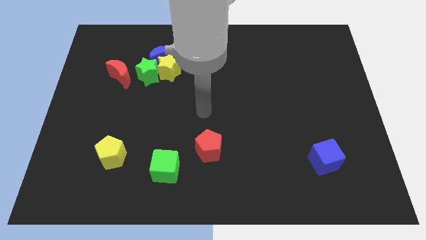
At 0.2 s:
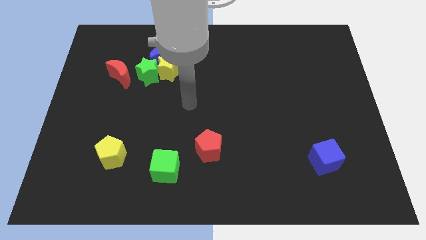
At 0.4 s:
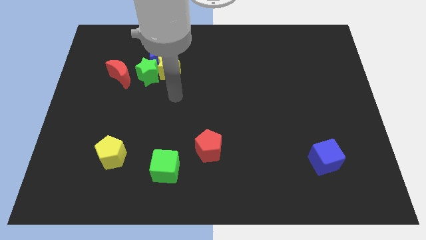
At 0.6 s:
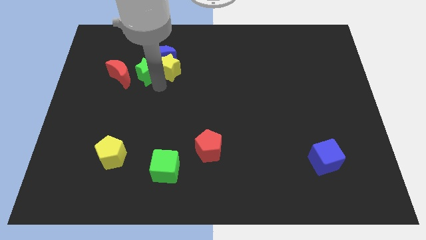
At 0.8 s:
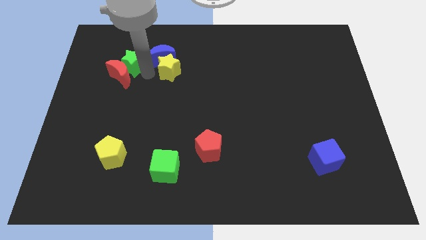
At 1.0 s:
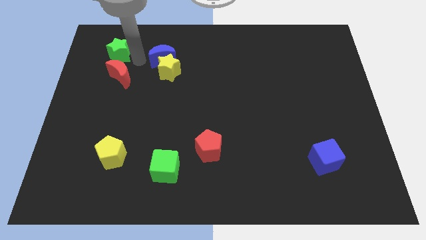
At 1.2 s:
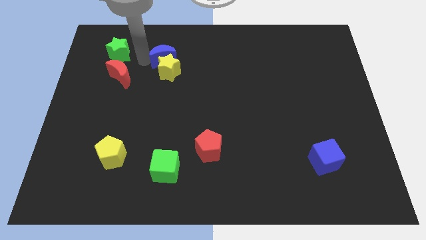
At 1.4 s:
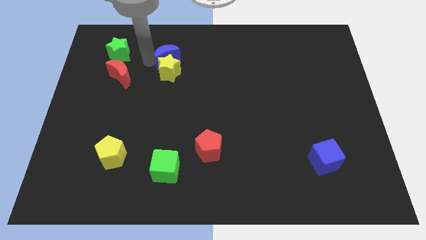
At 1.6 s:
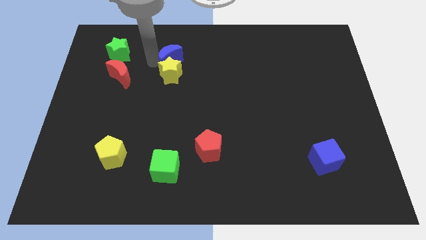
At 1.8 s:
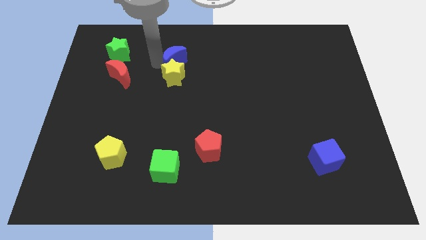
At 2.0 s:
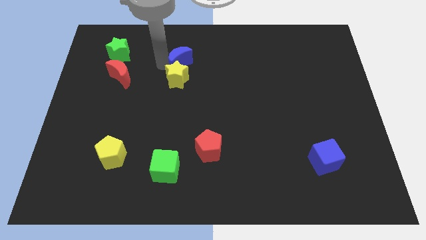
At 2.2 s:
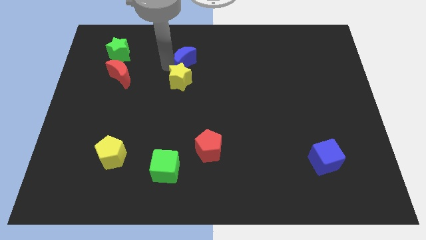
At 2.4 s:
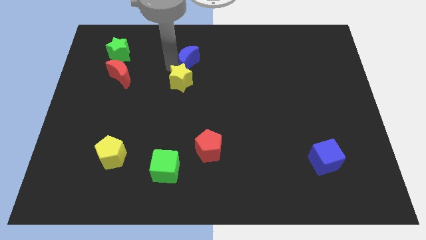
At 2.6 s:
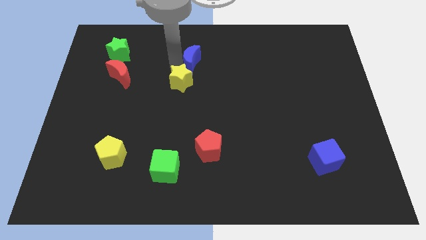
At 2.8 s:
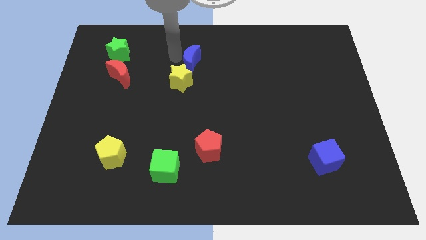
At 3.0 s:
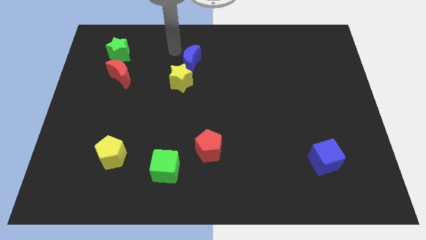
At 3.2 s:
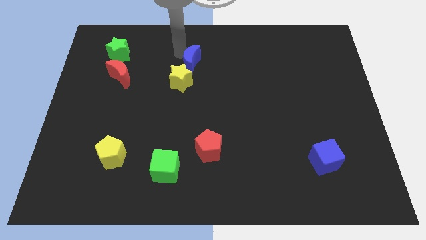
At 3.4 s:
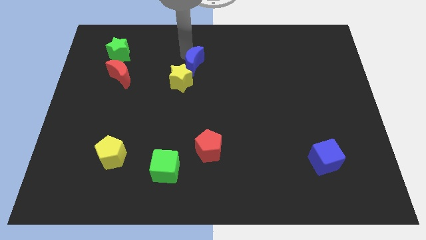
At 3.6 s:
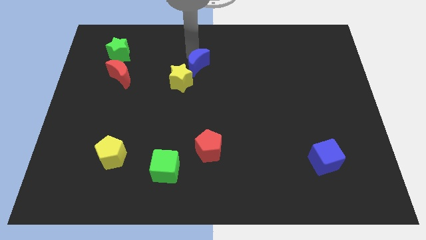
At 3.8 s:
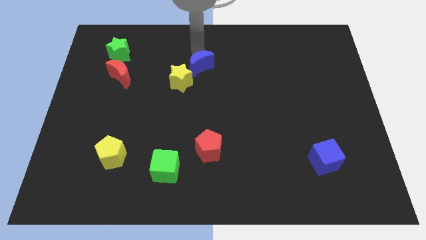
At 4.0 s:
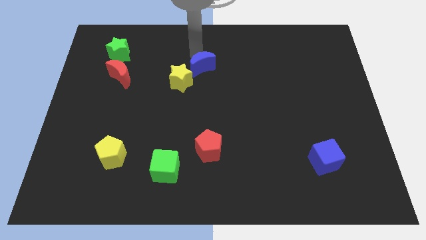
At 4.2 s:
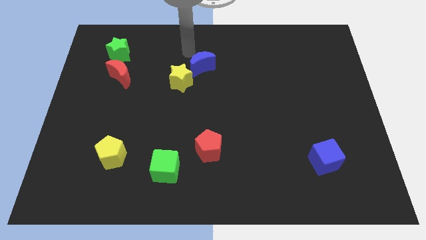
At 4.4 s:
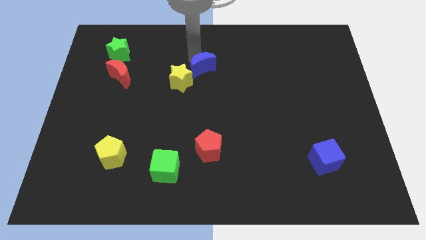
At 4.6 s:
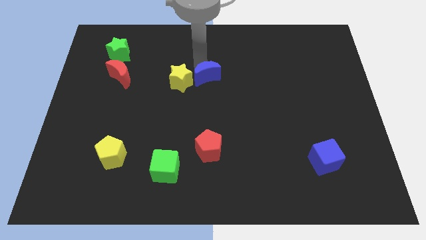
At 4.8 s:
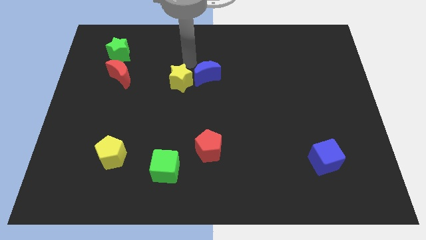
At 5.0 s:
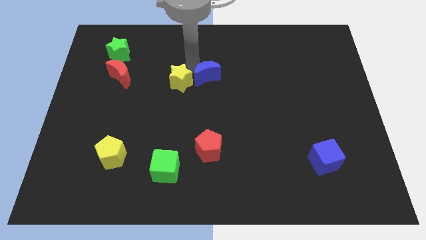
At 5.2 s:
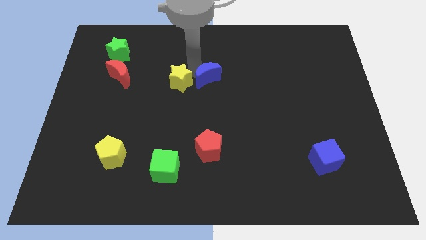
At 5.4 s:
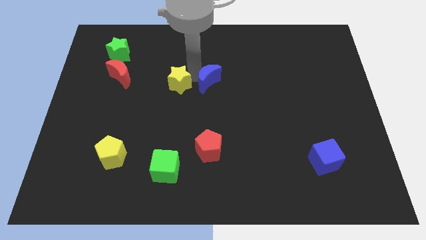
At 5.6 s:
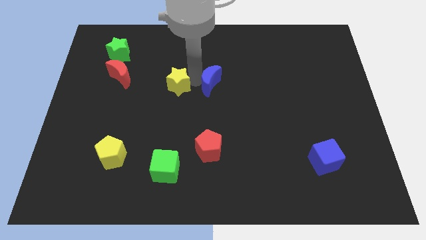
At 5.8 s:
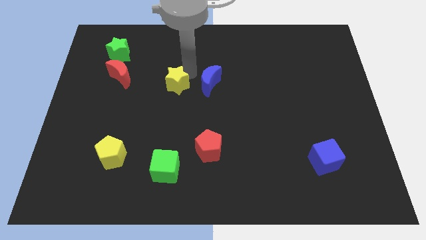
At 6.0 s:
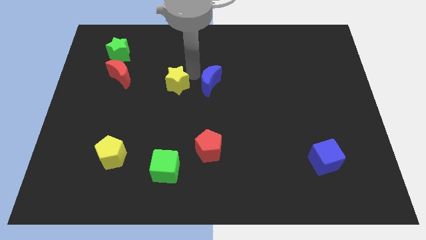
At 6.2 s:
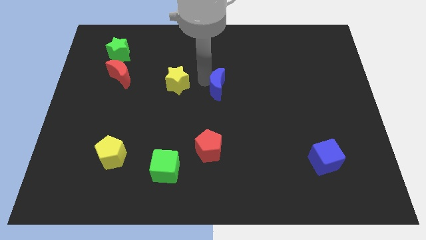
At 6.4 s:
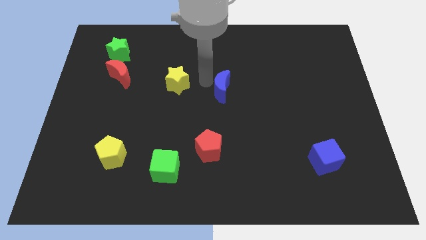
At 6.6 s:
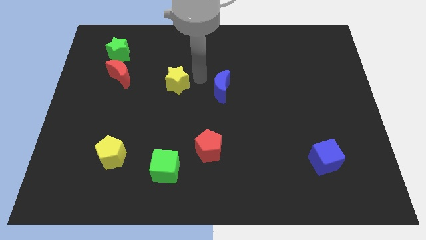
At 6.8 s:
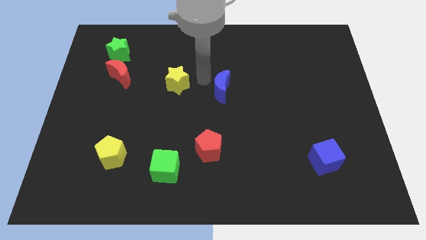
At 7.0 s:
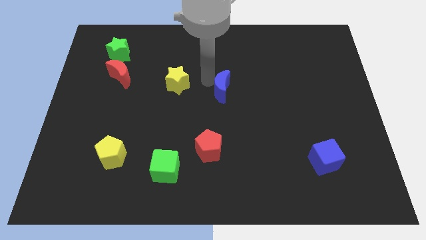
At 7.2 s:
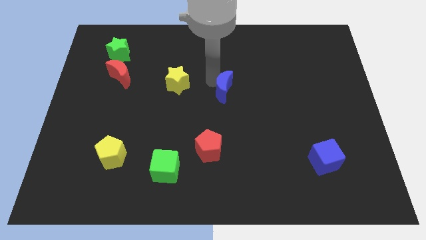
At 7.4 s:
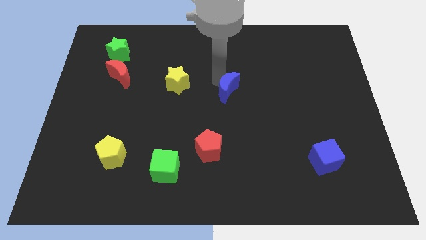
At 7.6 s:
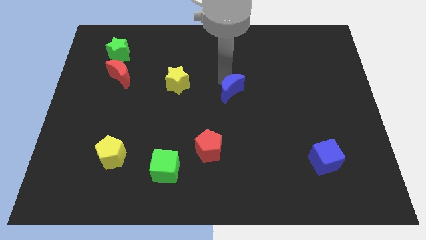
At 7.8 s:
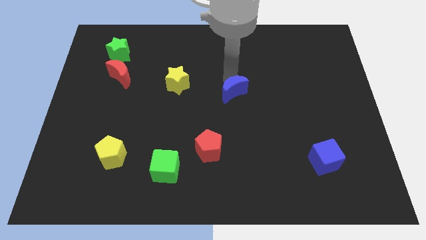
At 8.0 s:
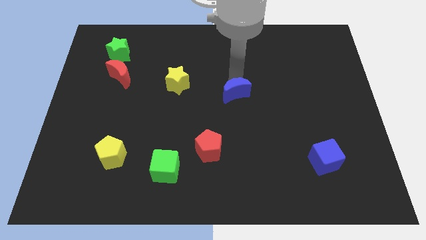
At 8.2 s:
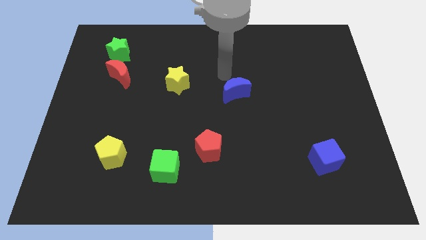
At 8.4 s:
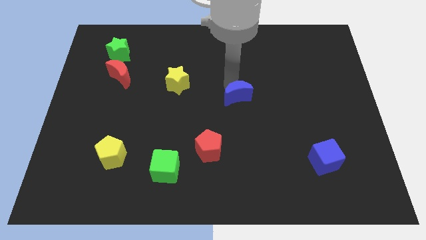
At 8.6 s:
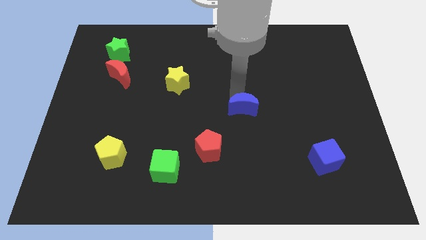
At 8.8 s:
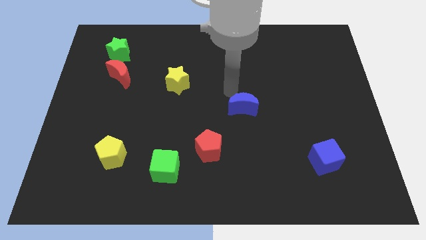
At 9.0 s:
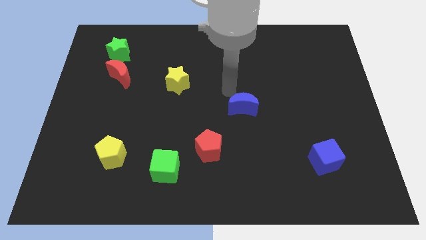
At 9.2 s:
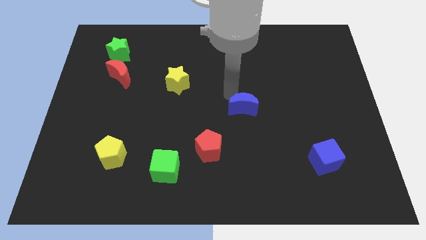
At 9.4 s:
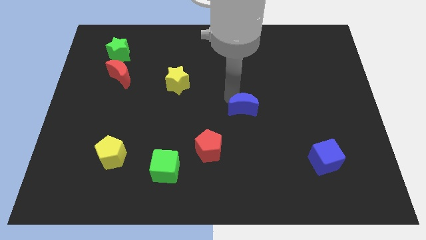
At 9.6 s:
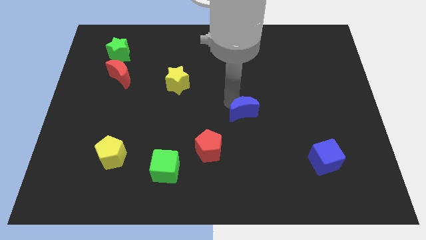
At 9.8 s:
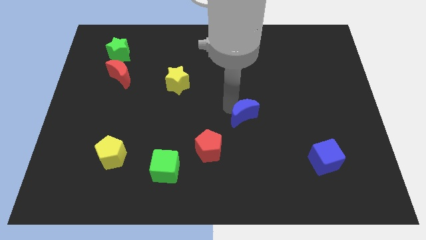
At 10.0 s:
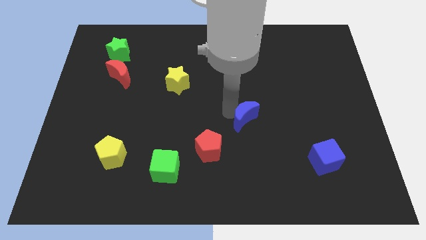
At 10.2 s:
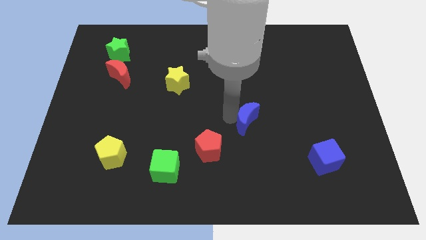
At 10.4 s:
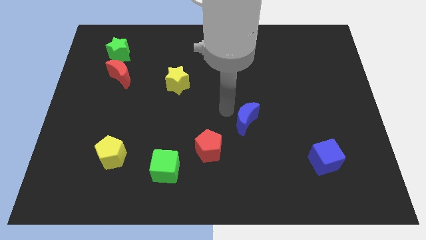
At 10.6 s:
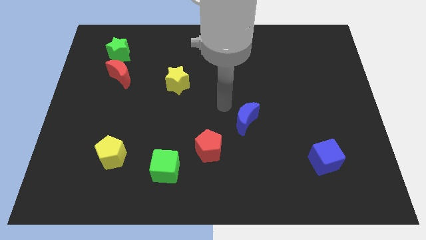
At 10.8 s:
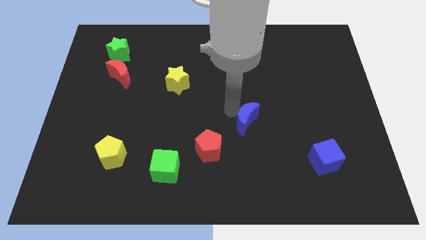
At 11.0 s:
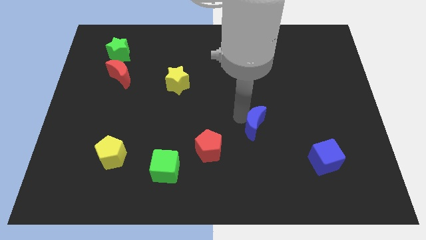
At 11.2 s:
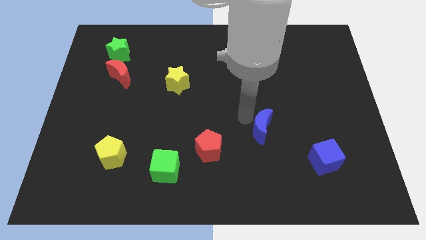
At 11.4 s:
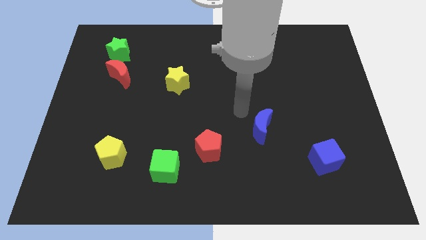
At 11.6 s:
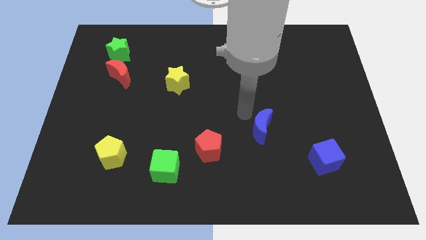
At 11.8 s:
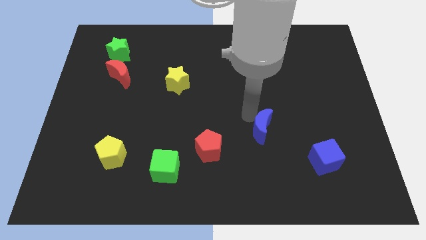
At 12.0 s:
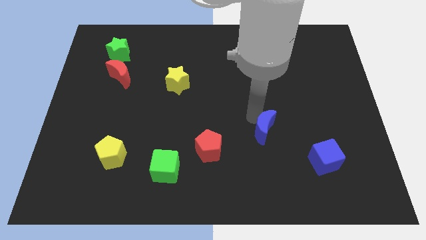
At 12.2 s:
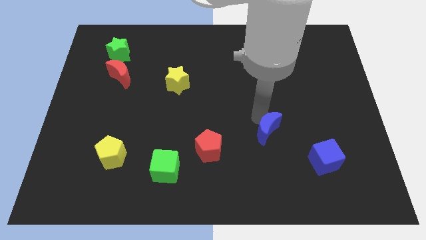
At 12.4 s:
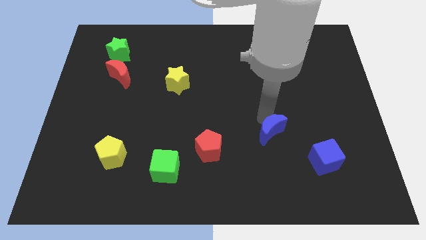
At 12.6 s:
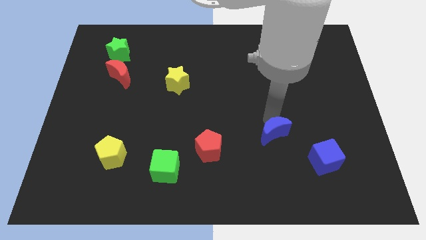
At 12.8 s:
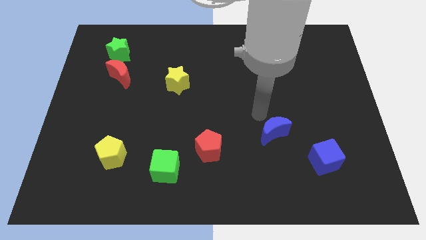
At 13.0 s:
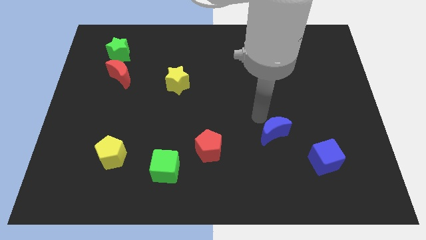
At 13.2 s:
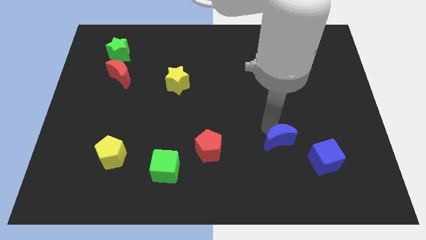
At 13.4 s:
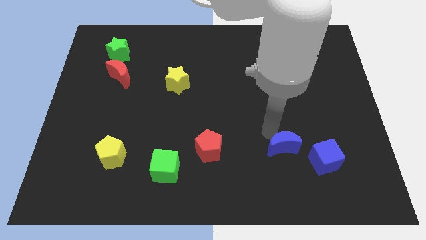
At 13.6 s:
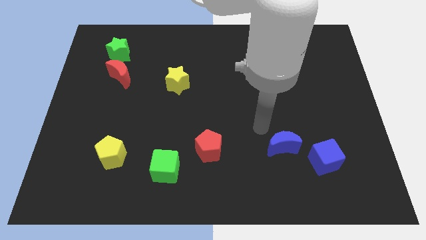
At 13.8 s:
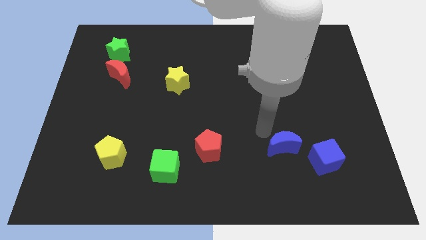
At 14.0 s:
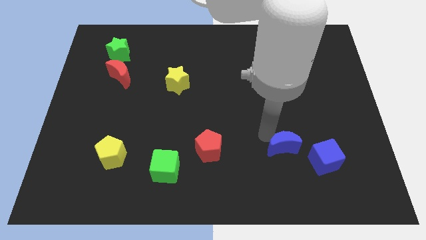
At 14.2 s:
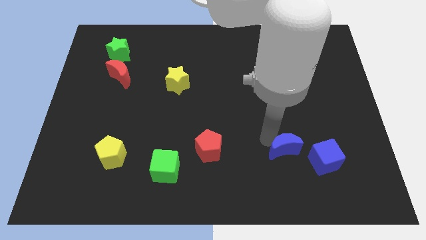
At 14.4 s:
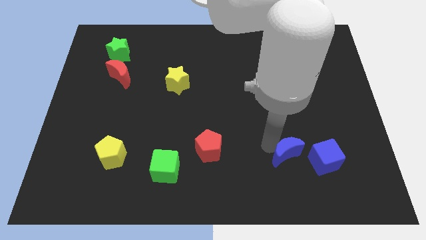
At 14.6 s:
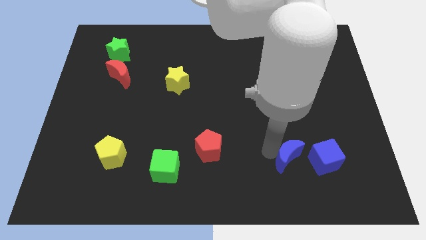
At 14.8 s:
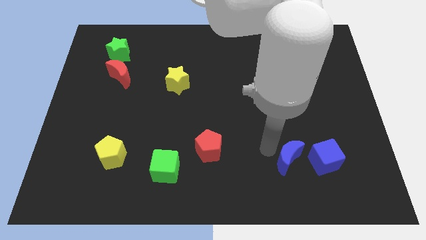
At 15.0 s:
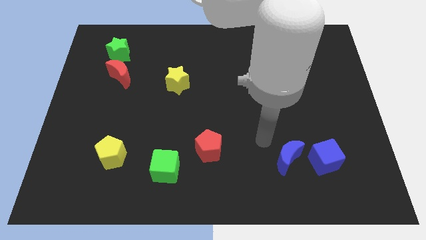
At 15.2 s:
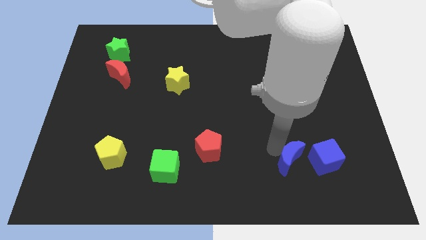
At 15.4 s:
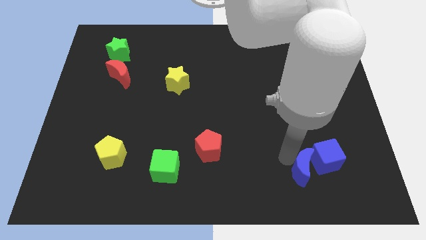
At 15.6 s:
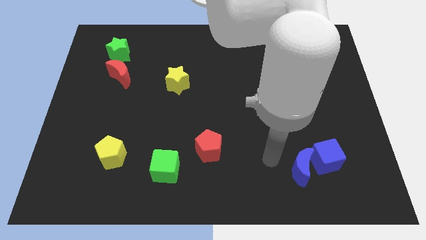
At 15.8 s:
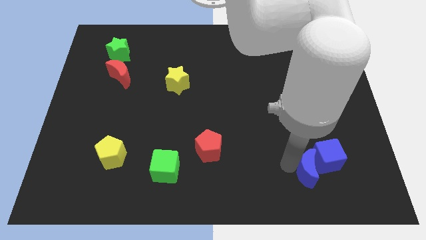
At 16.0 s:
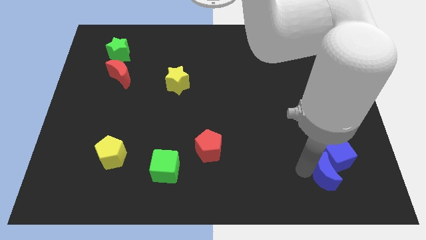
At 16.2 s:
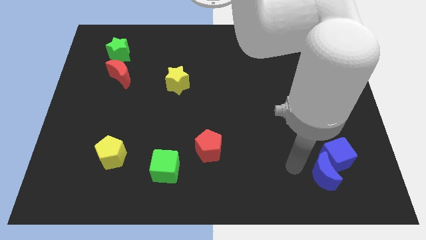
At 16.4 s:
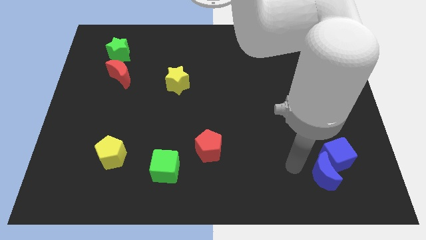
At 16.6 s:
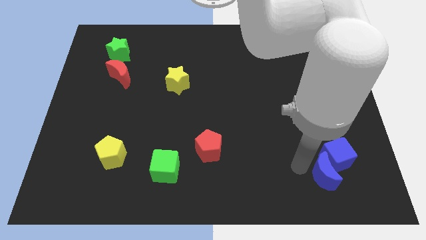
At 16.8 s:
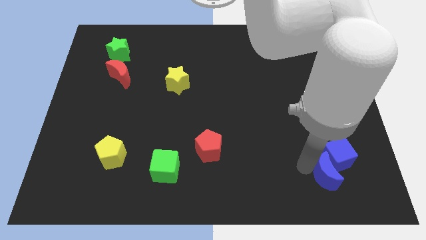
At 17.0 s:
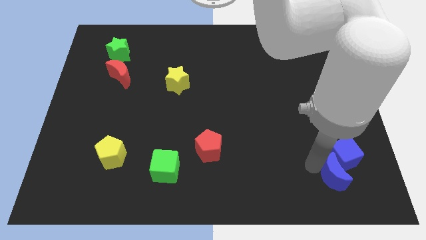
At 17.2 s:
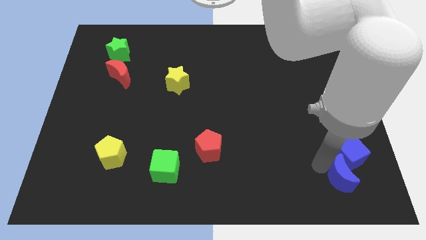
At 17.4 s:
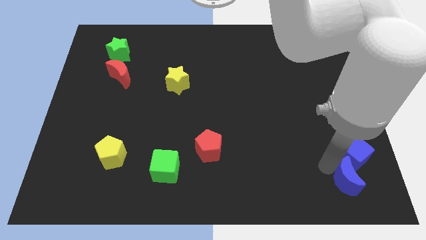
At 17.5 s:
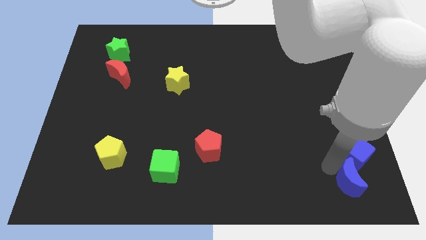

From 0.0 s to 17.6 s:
push the blue moon to the bottom right corner
